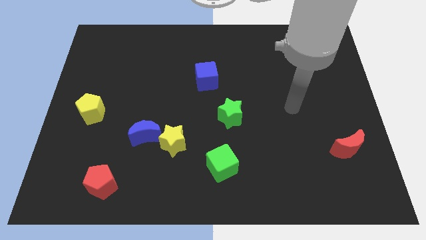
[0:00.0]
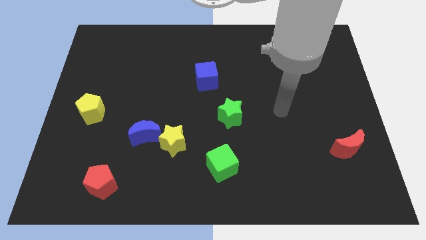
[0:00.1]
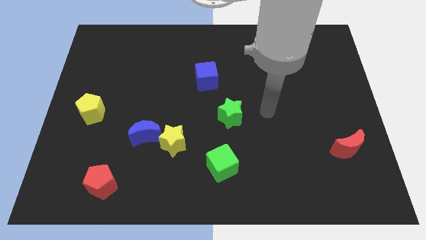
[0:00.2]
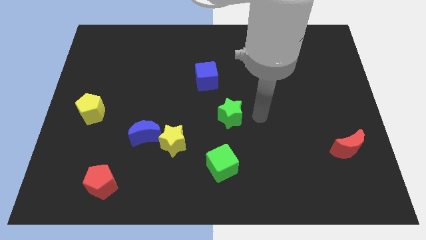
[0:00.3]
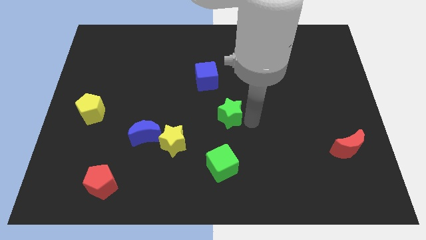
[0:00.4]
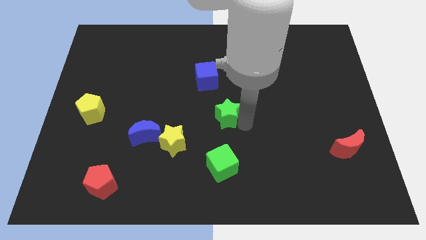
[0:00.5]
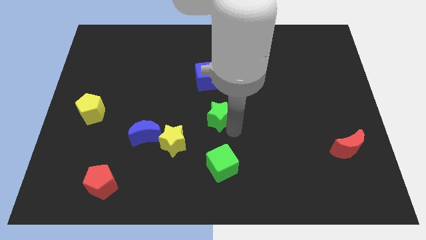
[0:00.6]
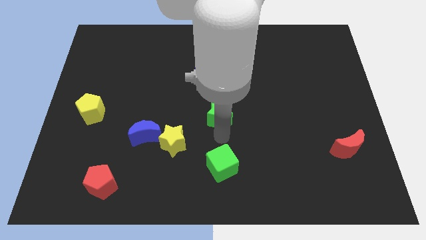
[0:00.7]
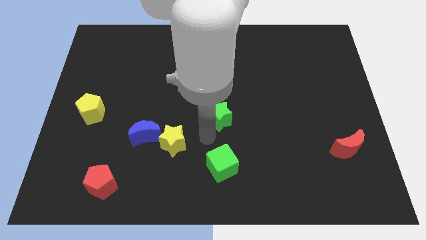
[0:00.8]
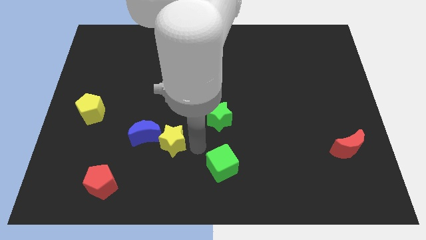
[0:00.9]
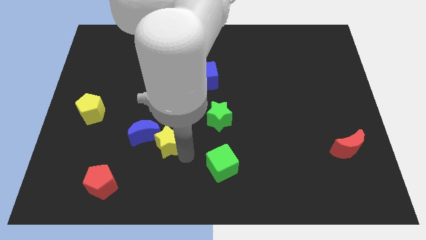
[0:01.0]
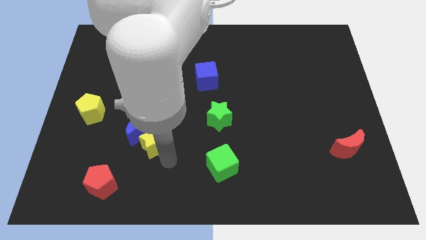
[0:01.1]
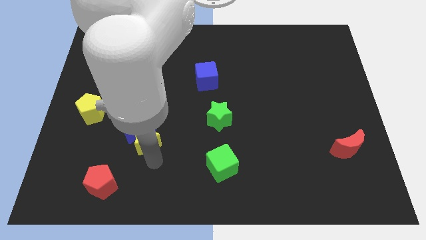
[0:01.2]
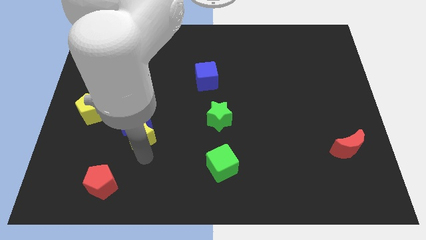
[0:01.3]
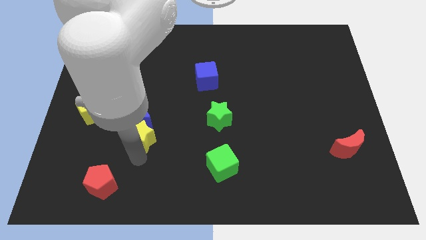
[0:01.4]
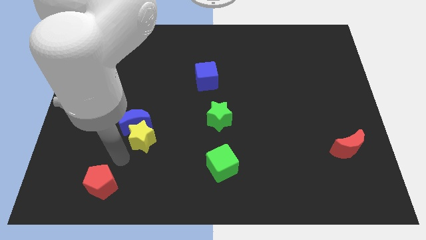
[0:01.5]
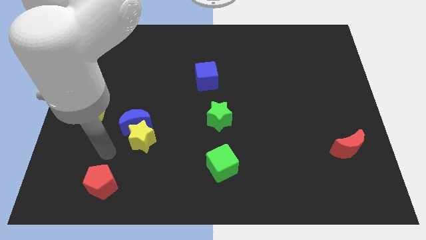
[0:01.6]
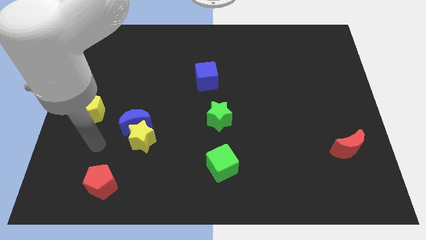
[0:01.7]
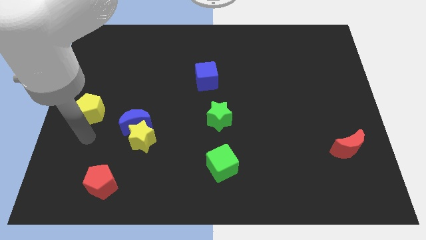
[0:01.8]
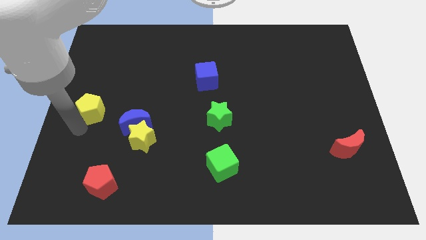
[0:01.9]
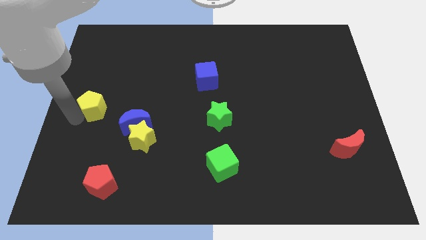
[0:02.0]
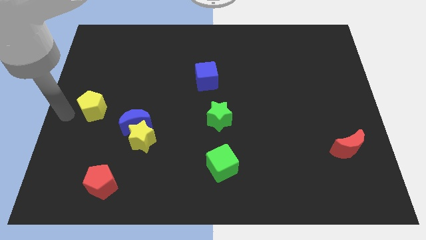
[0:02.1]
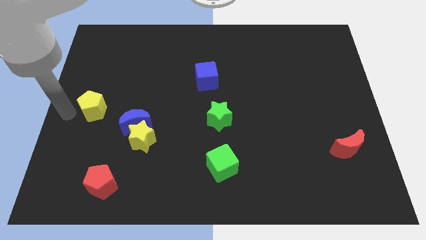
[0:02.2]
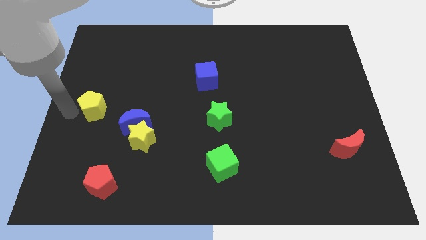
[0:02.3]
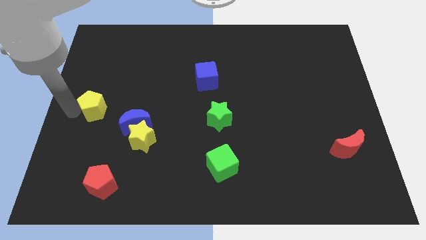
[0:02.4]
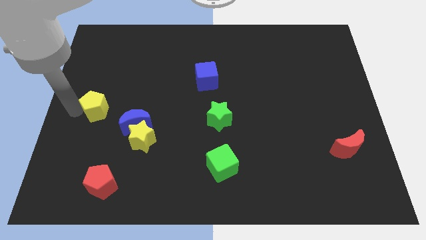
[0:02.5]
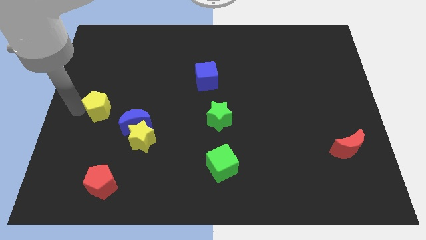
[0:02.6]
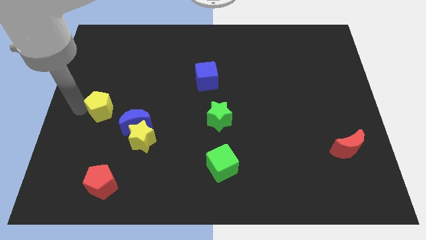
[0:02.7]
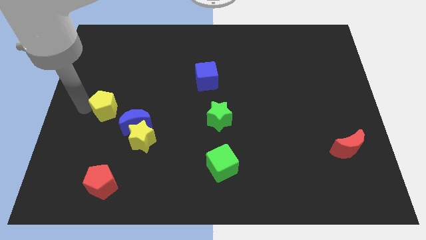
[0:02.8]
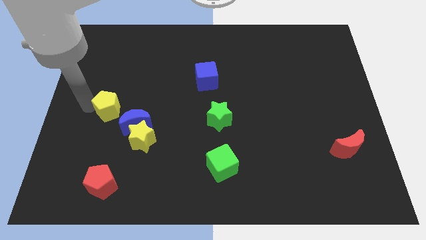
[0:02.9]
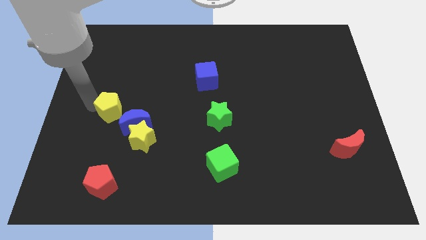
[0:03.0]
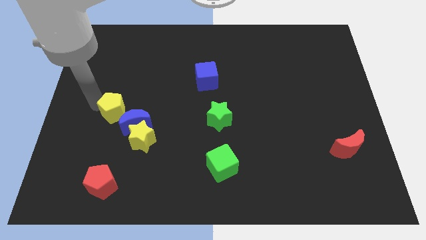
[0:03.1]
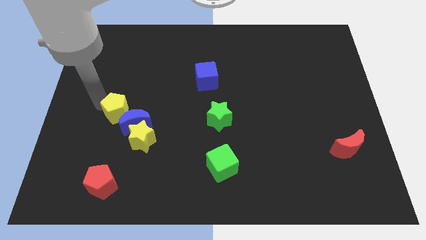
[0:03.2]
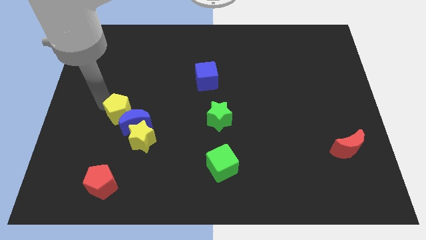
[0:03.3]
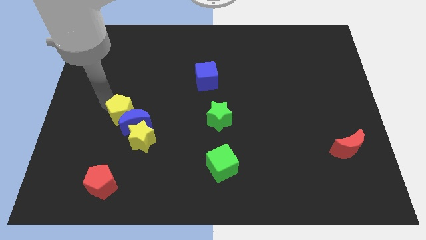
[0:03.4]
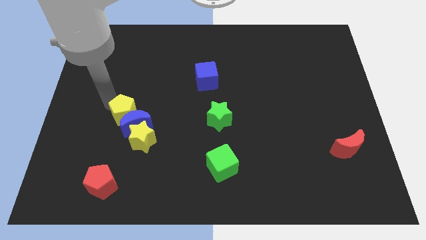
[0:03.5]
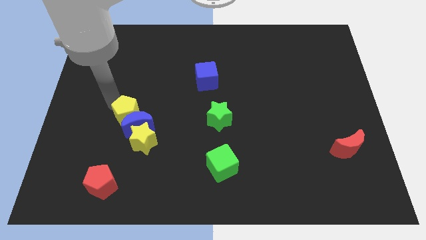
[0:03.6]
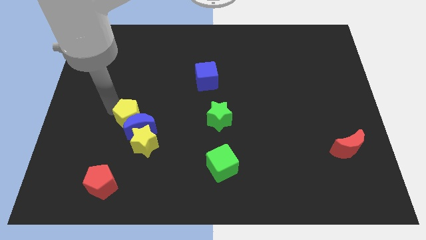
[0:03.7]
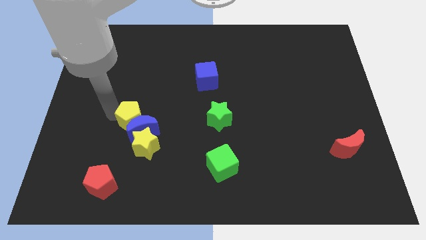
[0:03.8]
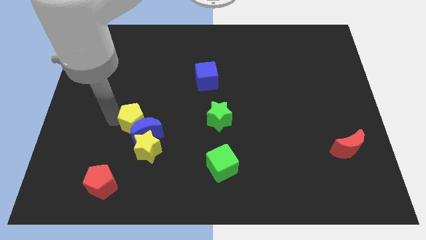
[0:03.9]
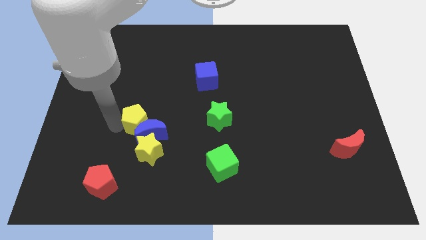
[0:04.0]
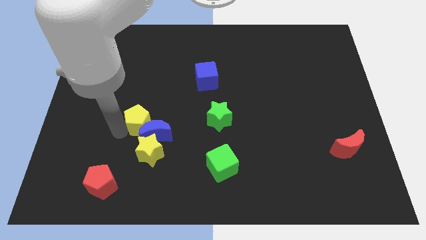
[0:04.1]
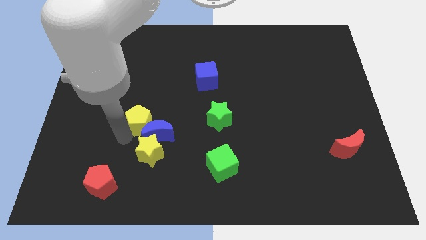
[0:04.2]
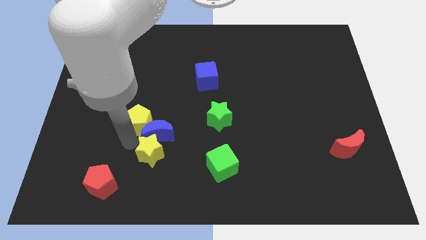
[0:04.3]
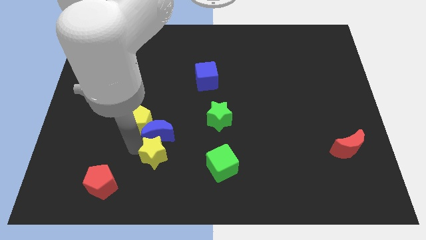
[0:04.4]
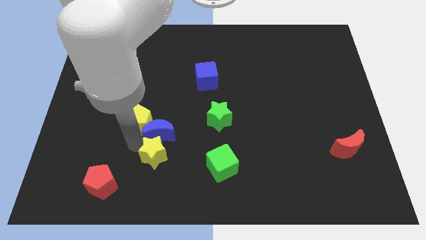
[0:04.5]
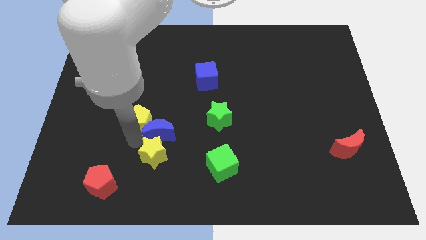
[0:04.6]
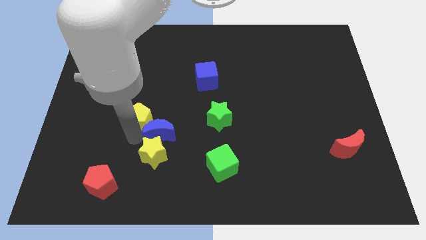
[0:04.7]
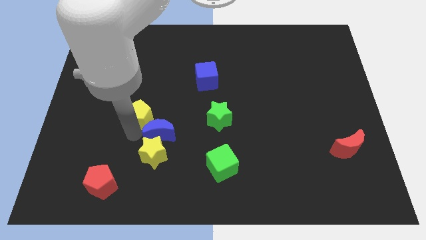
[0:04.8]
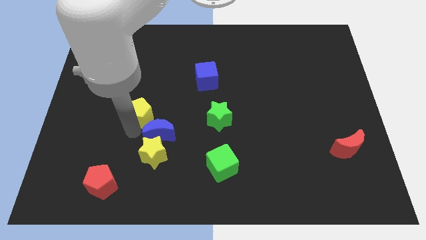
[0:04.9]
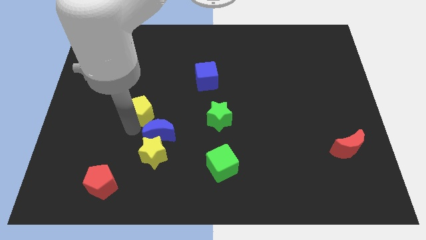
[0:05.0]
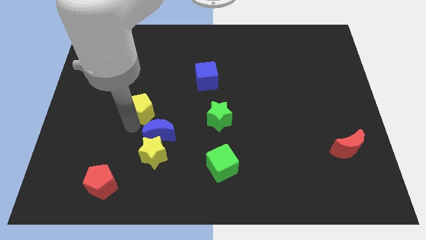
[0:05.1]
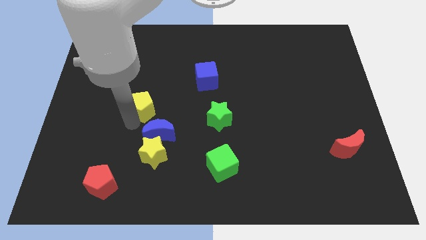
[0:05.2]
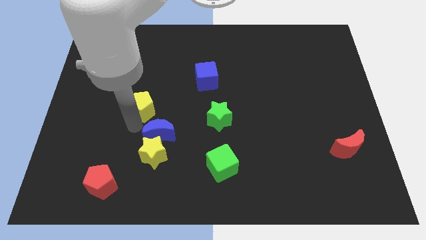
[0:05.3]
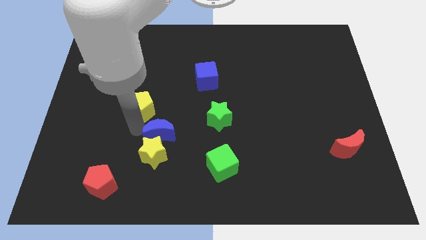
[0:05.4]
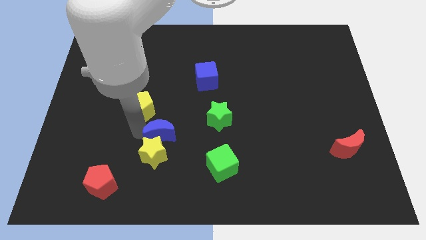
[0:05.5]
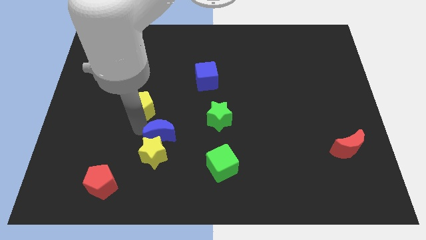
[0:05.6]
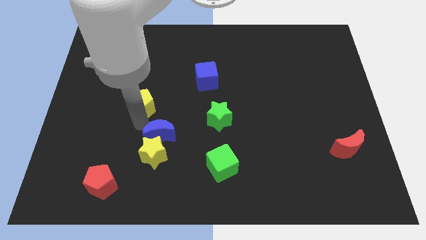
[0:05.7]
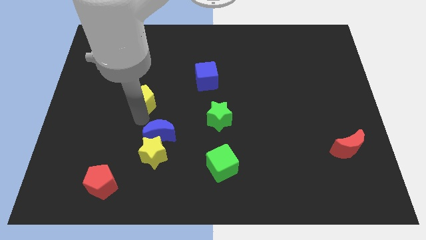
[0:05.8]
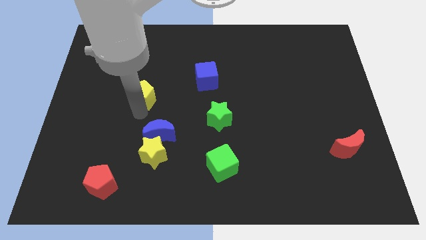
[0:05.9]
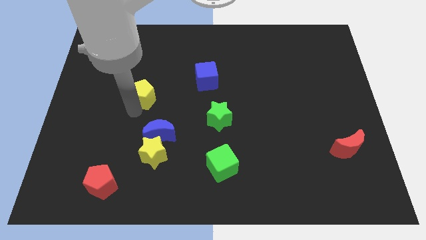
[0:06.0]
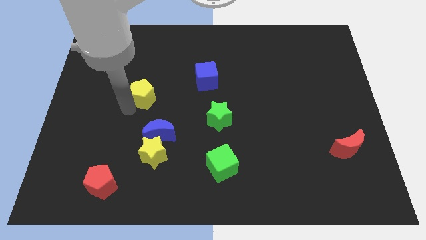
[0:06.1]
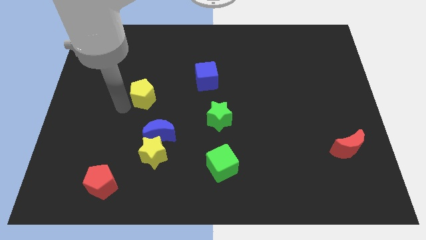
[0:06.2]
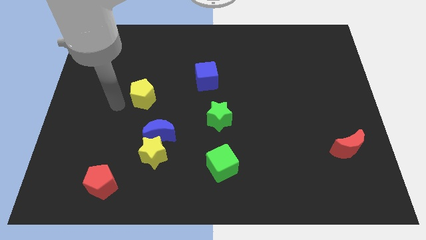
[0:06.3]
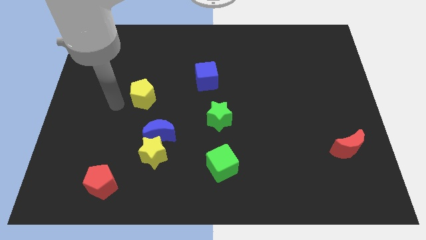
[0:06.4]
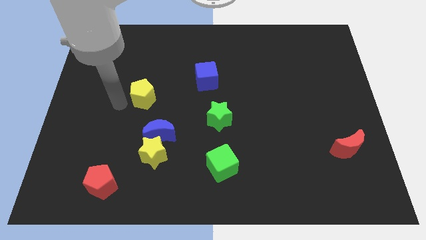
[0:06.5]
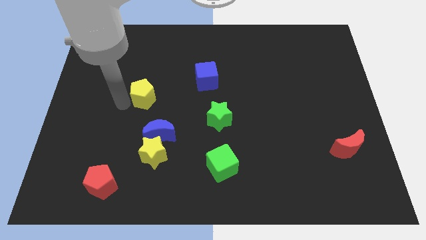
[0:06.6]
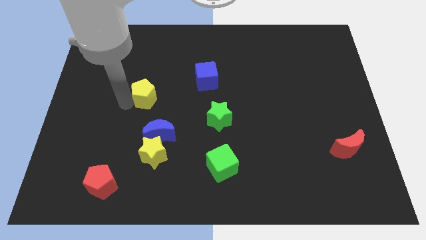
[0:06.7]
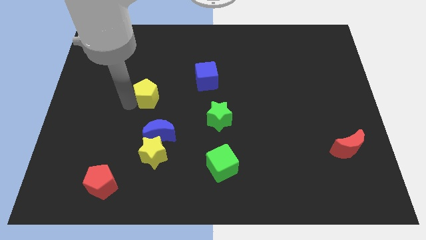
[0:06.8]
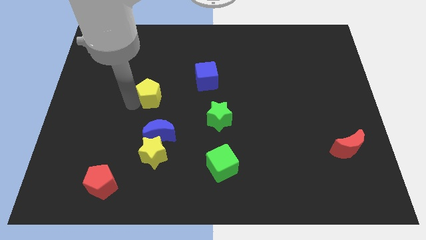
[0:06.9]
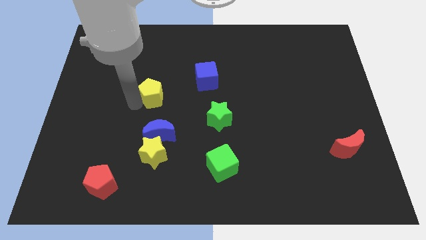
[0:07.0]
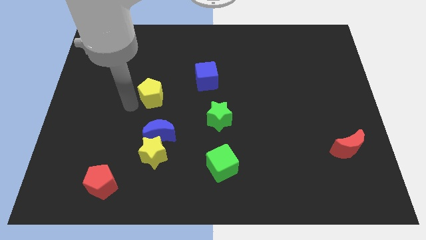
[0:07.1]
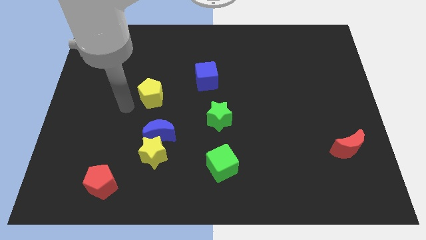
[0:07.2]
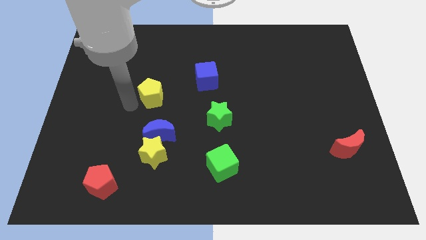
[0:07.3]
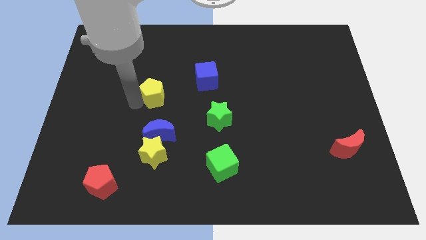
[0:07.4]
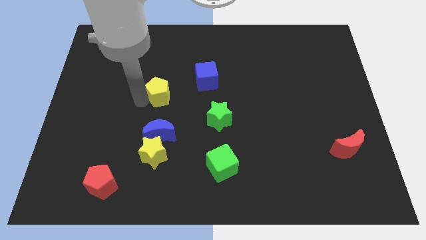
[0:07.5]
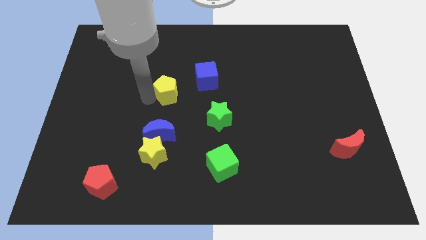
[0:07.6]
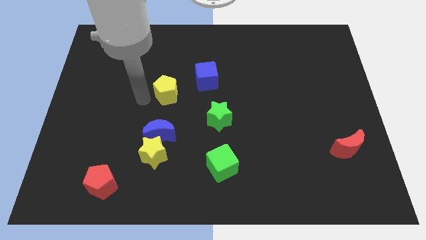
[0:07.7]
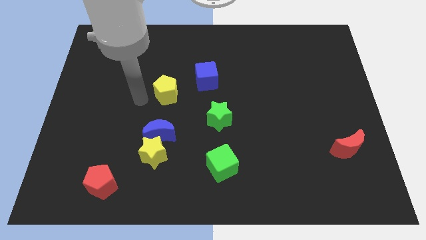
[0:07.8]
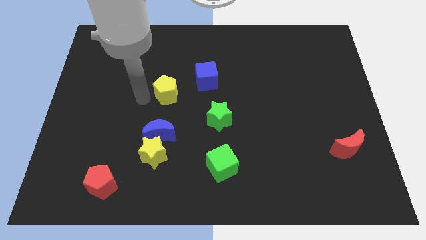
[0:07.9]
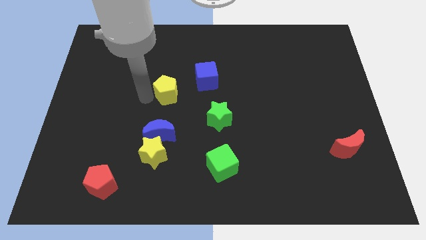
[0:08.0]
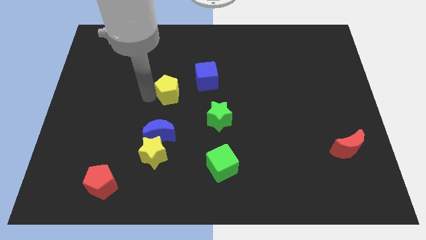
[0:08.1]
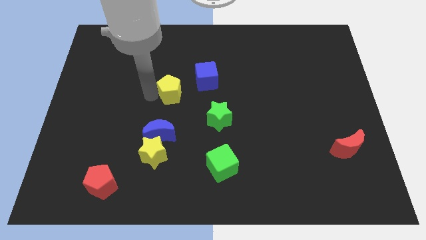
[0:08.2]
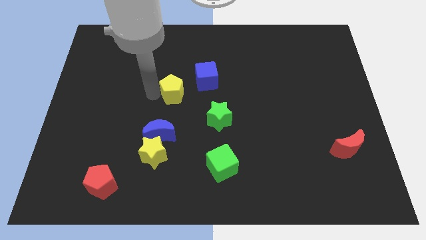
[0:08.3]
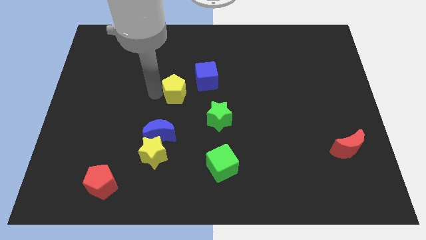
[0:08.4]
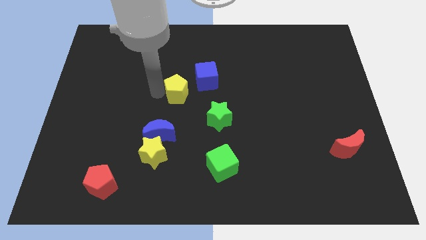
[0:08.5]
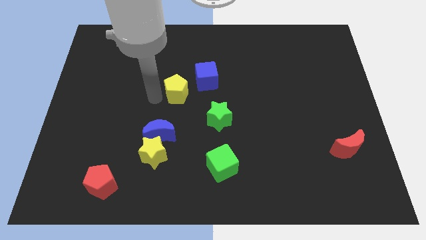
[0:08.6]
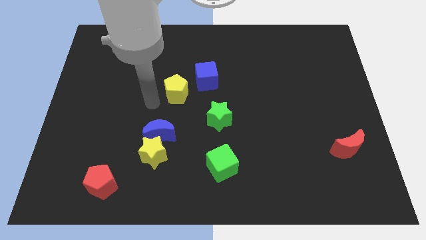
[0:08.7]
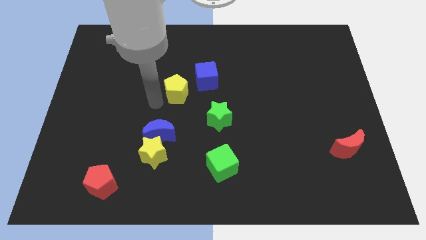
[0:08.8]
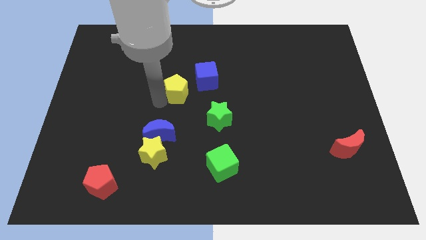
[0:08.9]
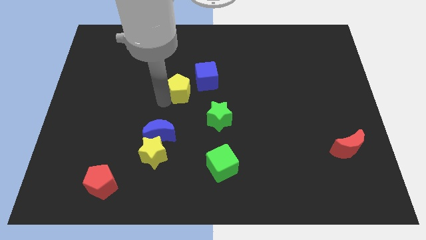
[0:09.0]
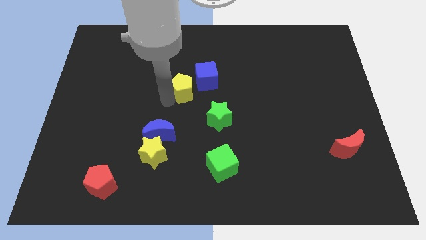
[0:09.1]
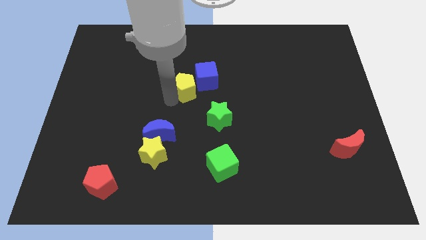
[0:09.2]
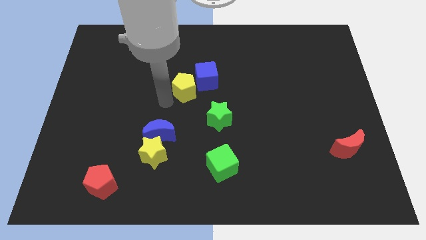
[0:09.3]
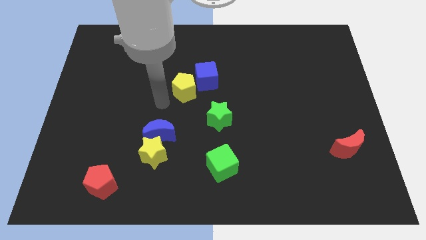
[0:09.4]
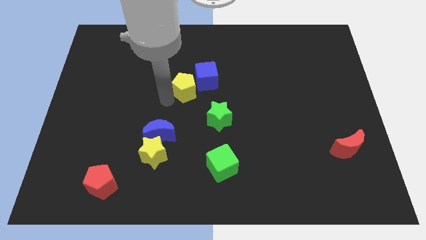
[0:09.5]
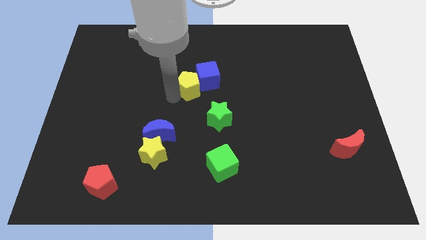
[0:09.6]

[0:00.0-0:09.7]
slide the yellow pentagon towards the blue cube
